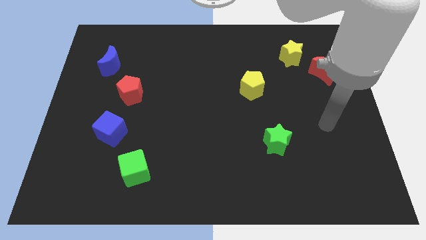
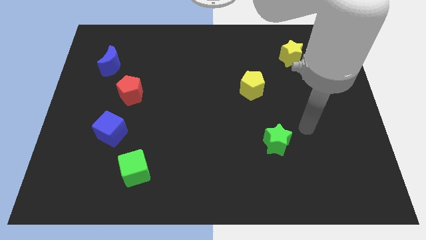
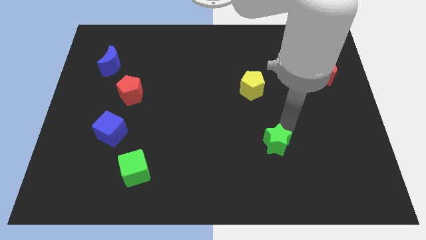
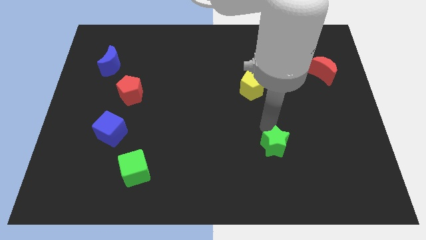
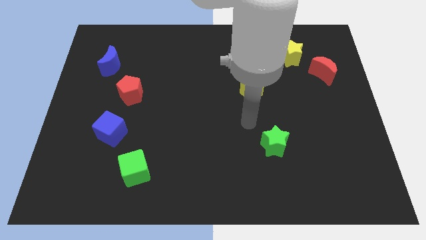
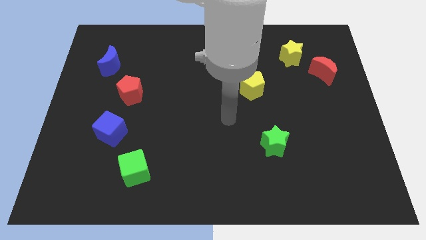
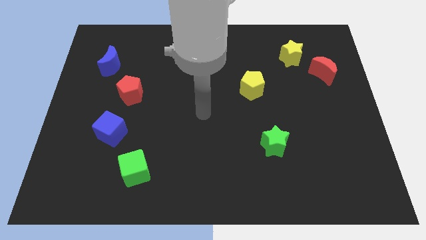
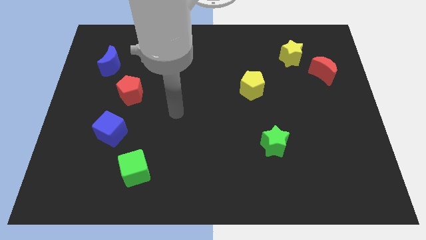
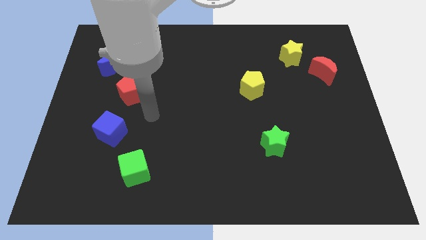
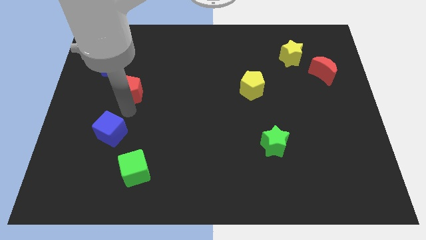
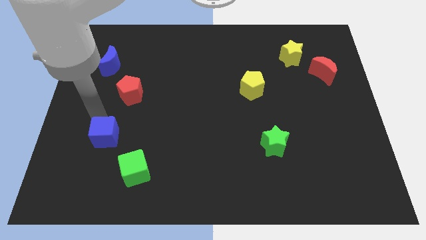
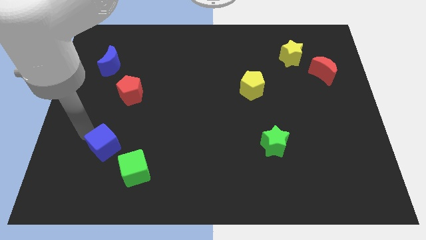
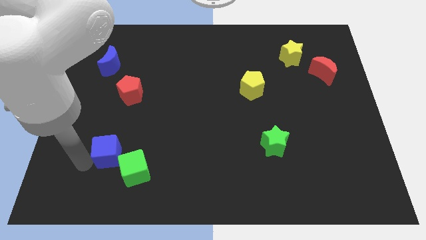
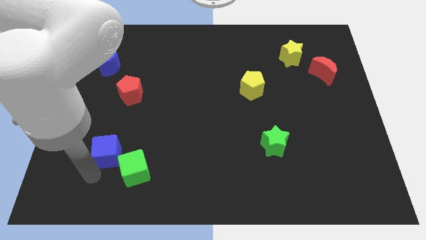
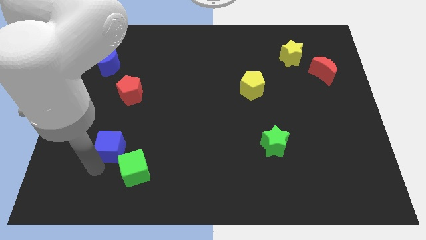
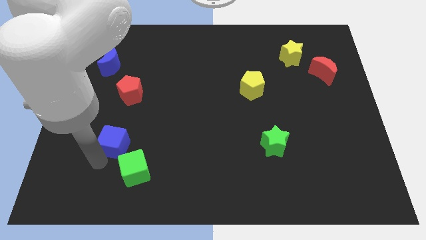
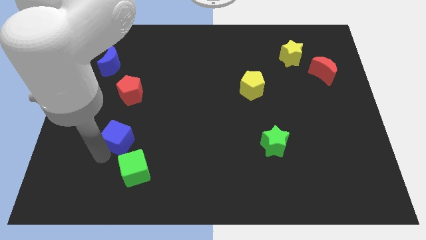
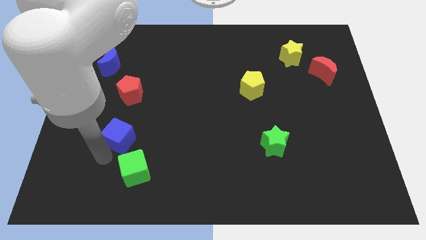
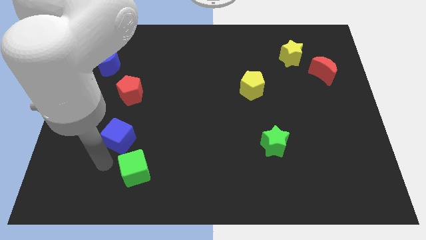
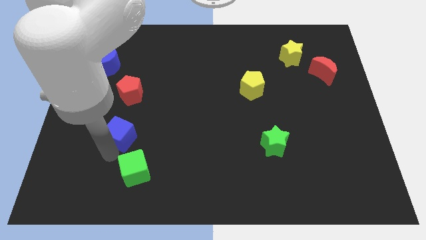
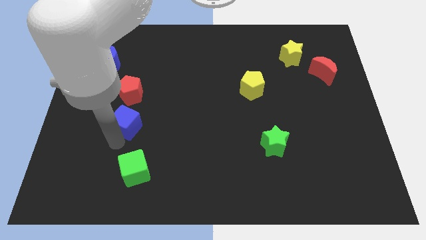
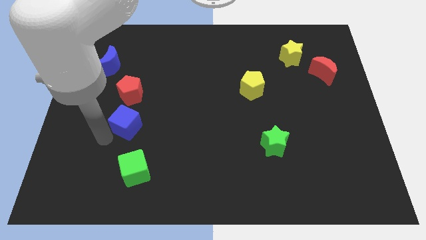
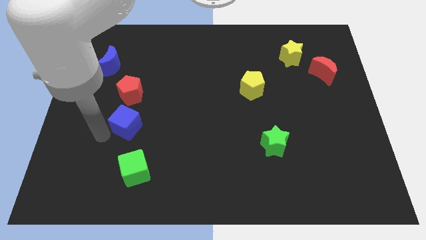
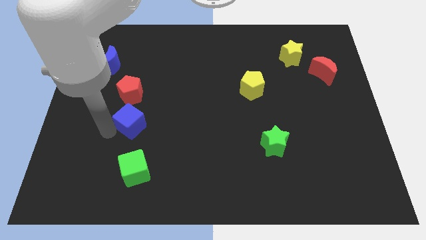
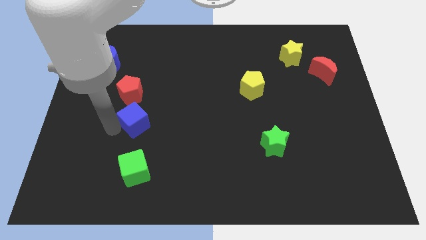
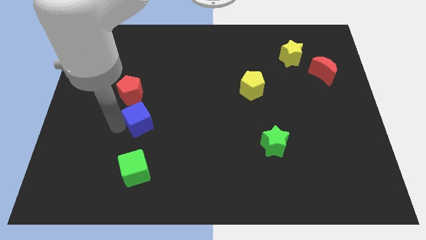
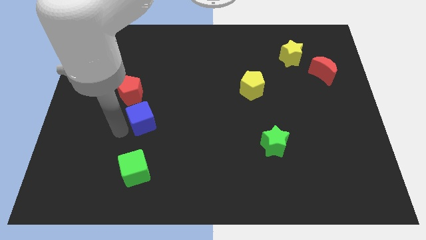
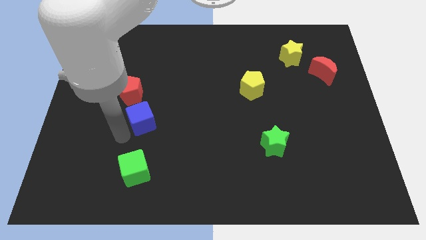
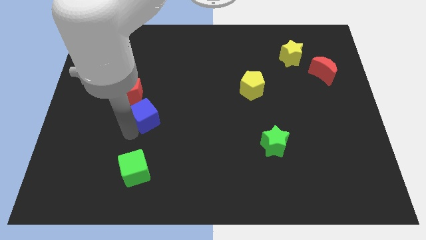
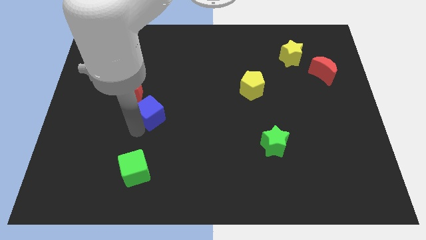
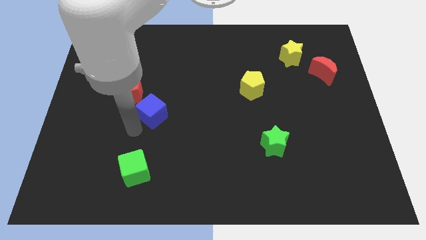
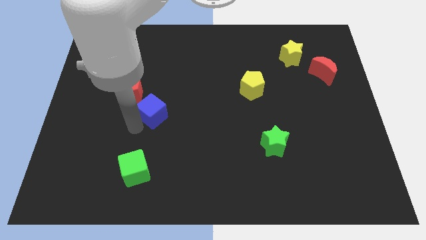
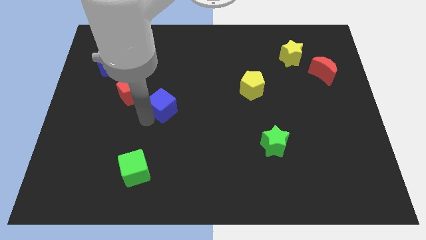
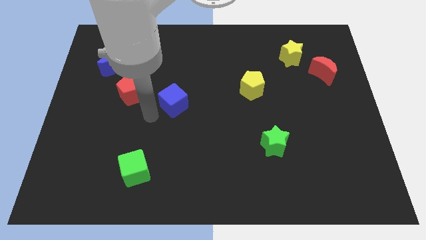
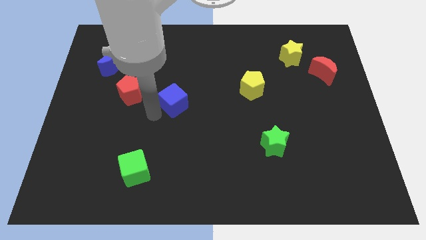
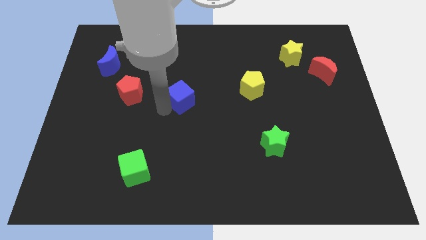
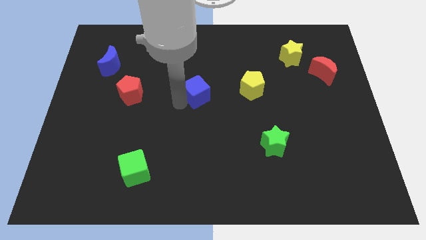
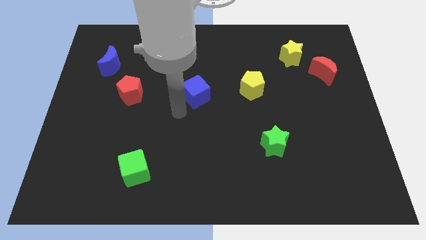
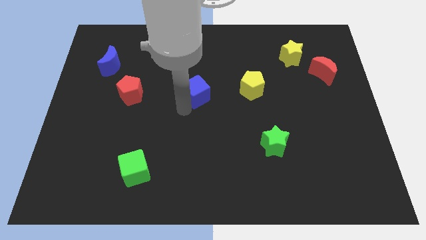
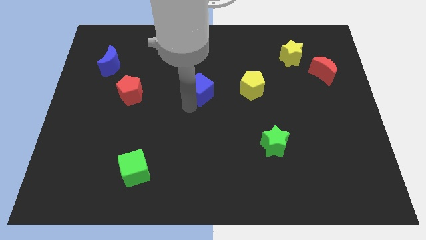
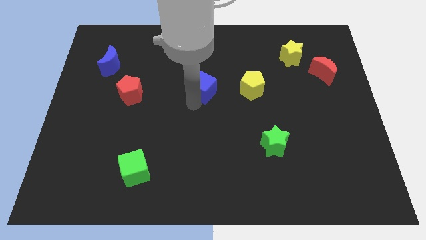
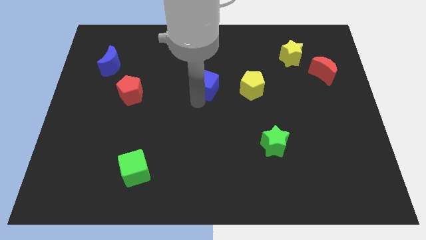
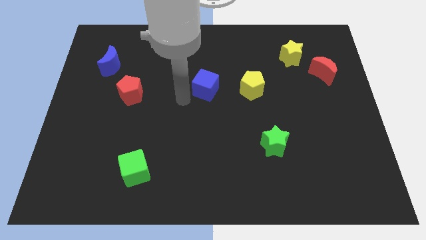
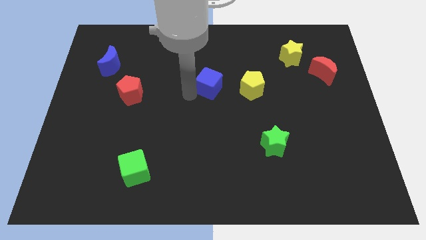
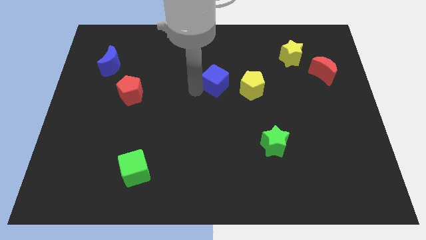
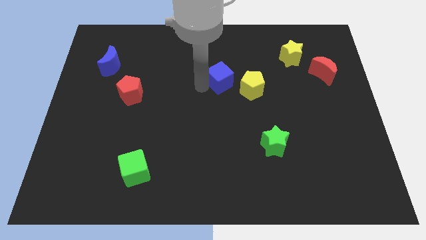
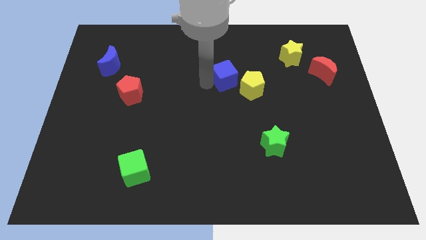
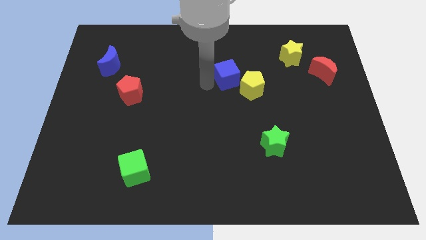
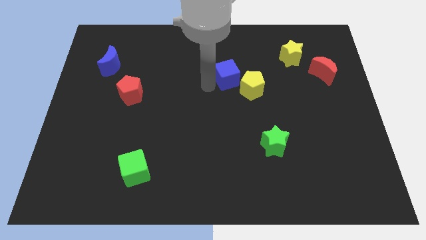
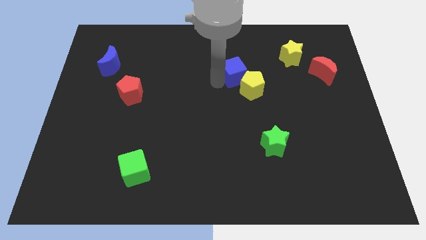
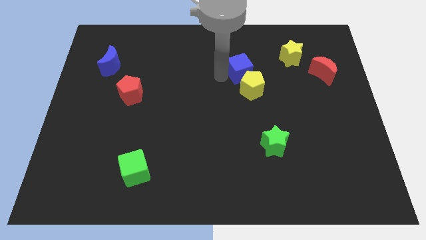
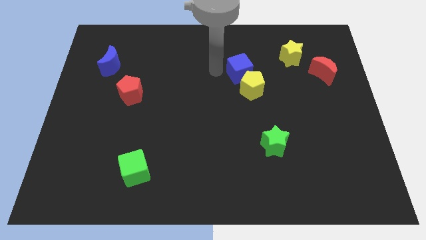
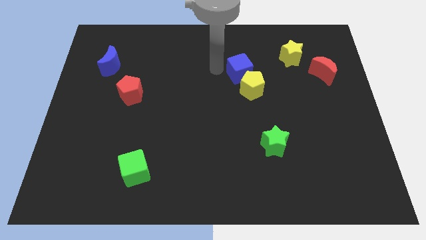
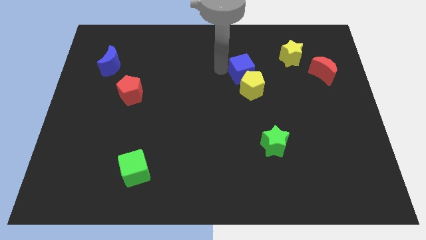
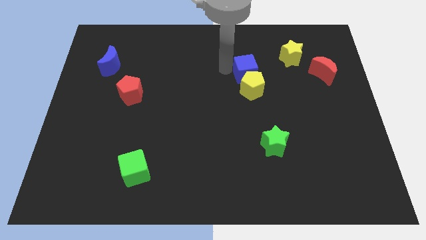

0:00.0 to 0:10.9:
put the blue cube to the top right side of the yellow pentagon

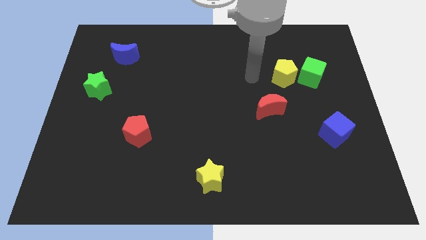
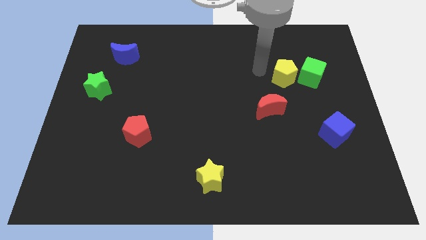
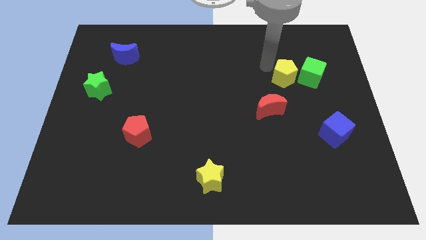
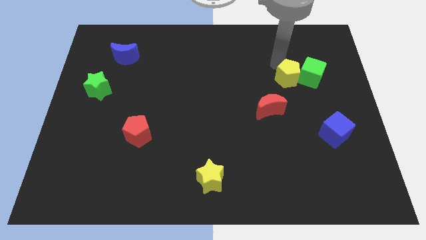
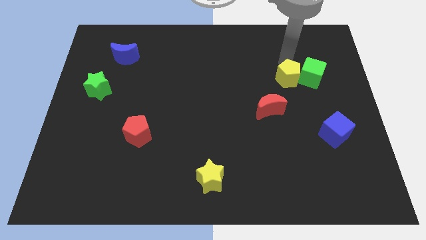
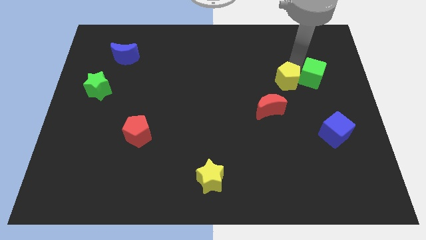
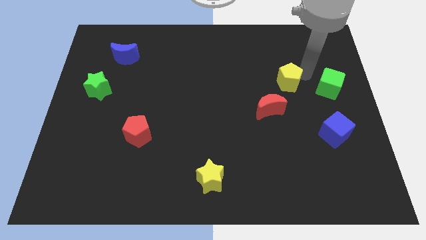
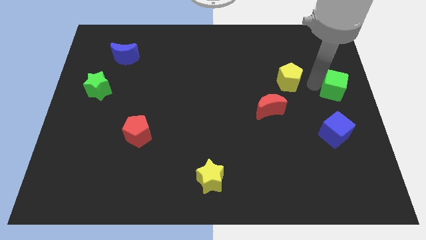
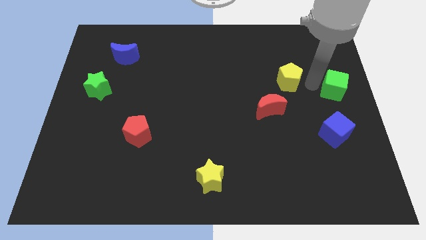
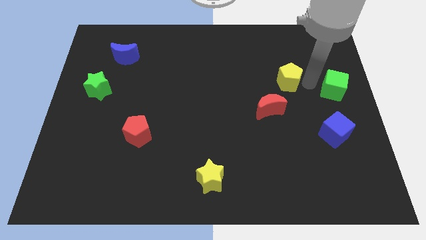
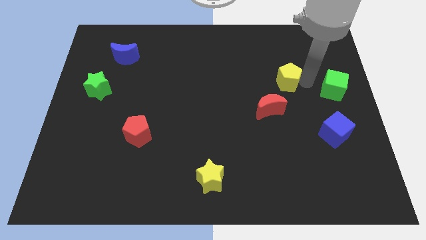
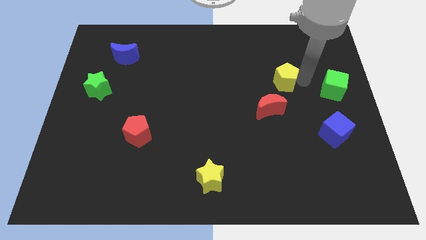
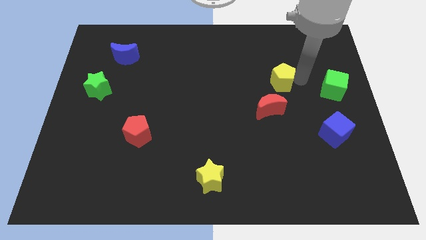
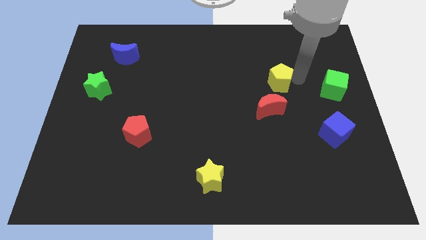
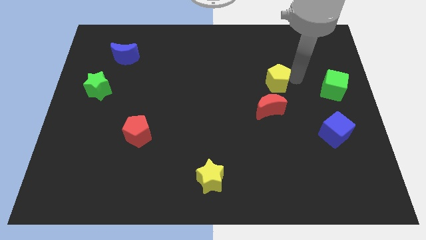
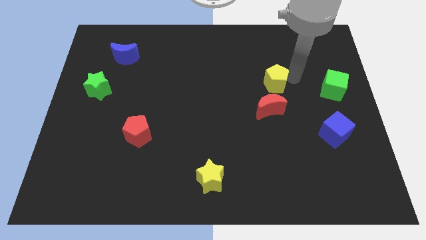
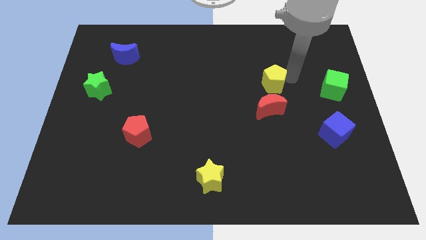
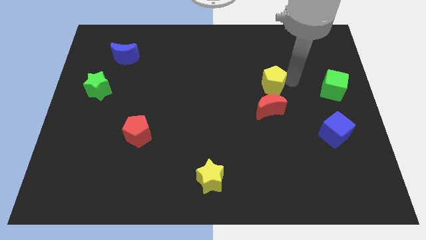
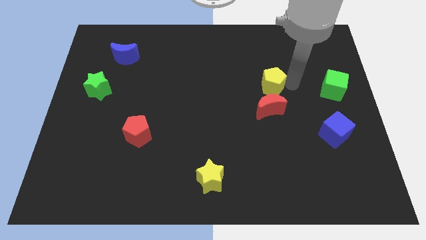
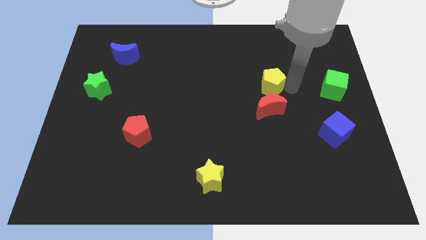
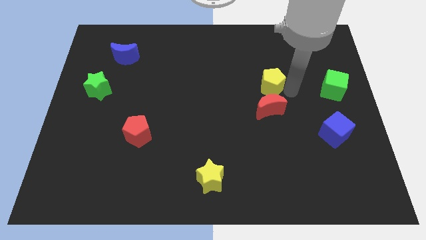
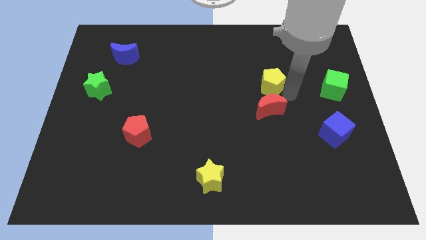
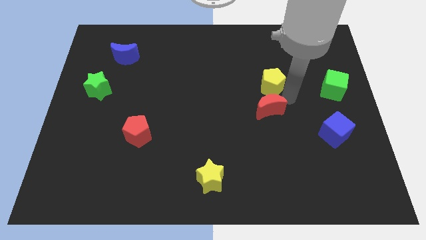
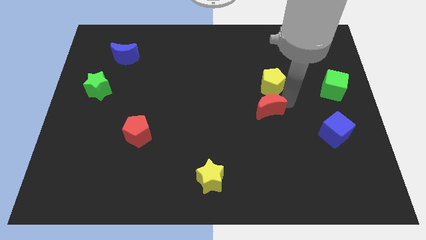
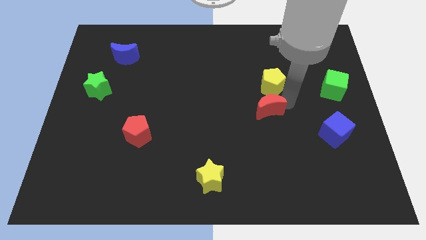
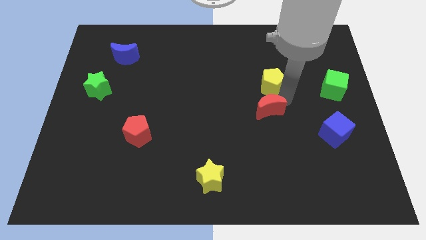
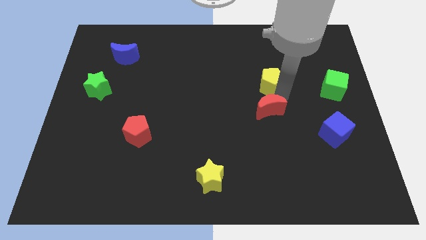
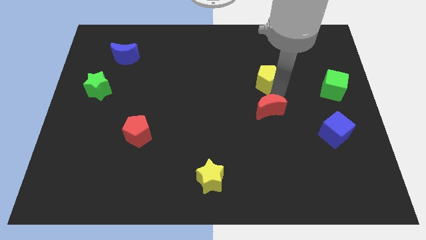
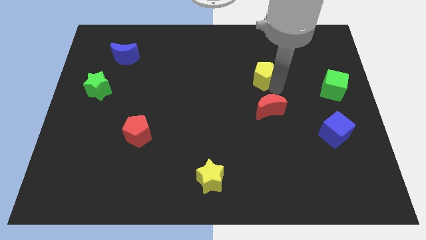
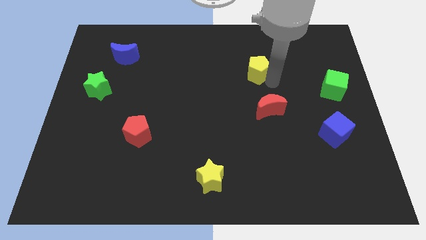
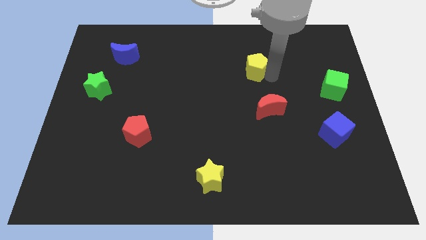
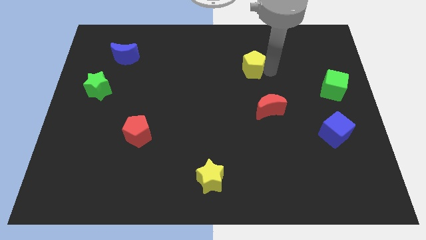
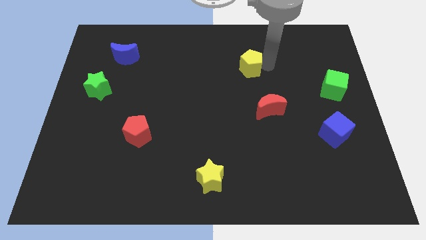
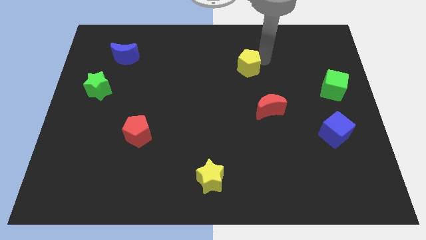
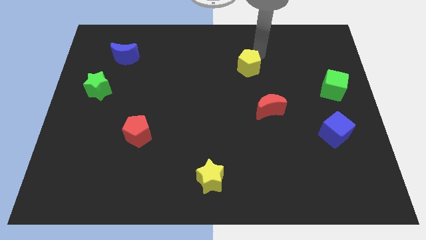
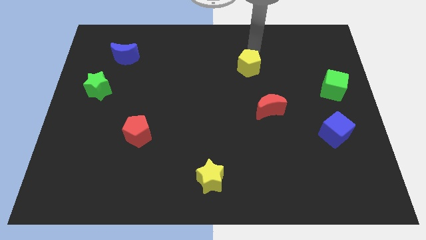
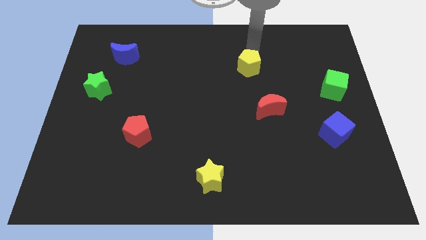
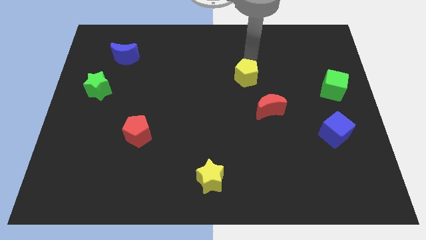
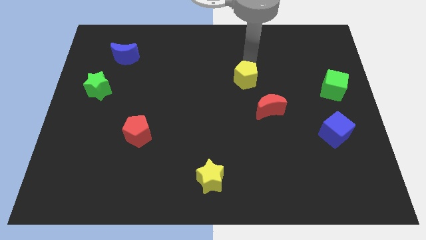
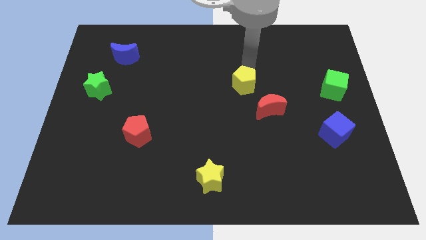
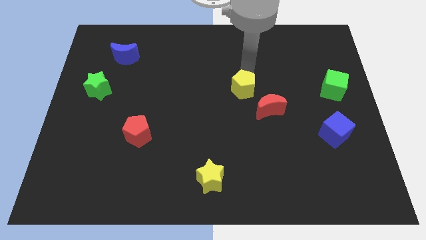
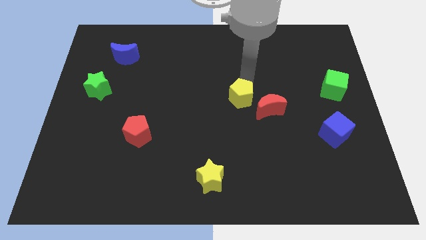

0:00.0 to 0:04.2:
push the yellow pentagon just left of the red moon
